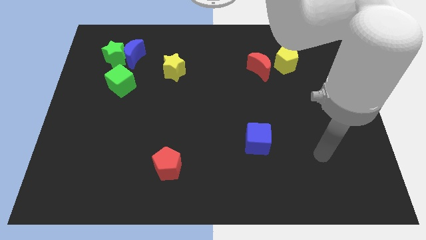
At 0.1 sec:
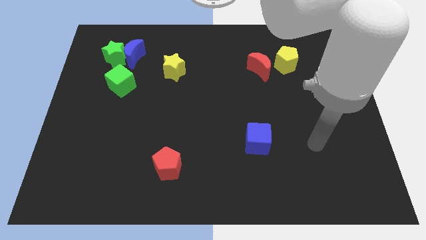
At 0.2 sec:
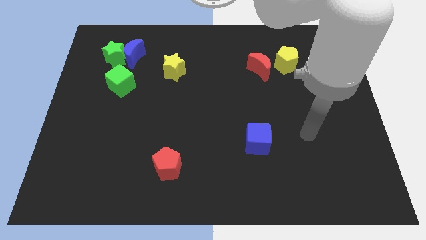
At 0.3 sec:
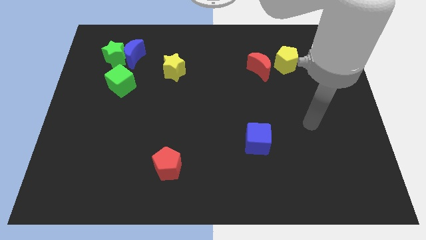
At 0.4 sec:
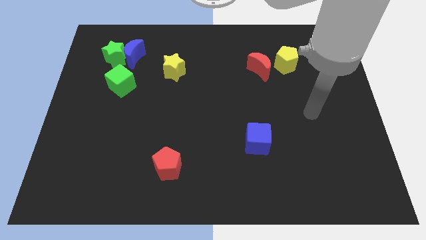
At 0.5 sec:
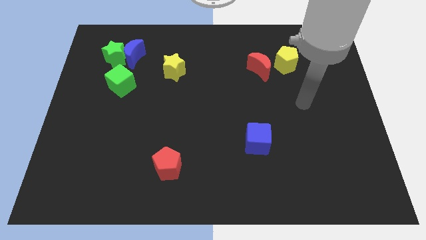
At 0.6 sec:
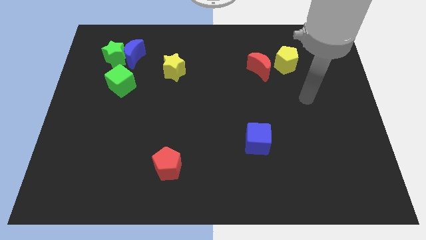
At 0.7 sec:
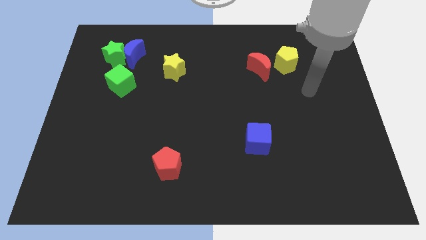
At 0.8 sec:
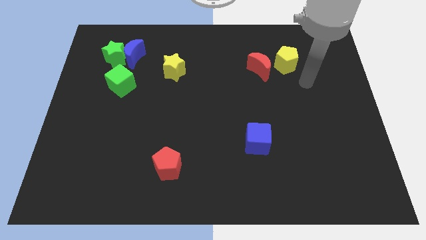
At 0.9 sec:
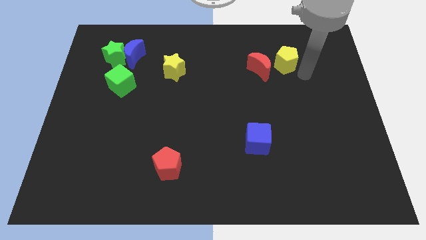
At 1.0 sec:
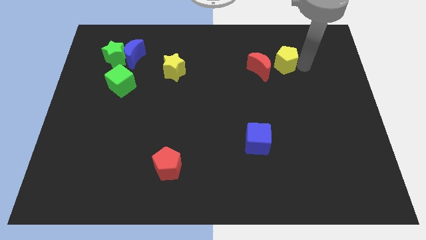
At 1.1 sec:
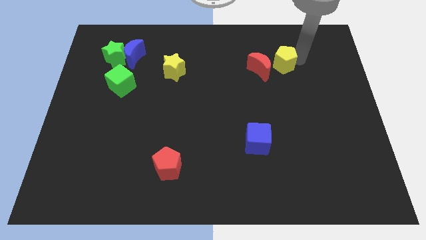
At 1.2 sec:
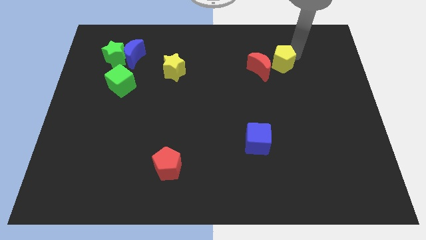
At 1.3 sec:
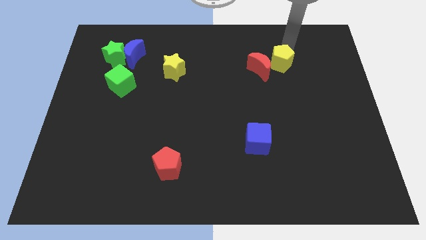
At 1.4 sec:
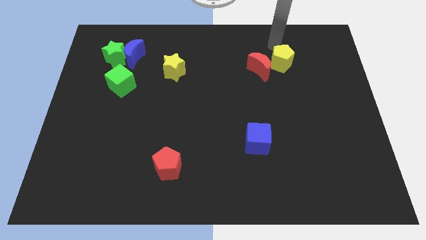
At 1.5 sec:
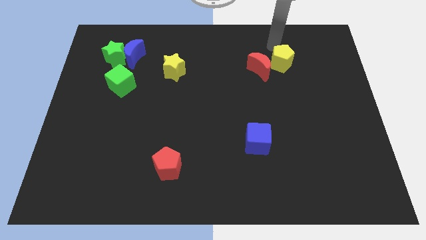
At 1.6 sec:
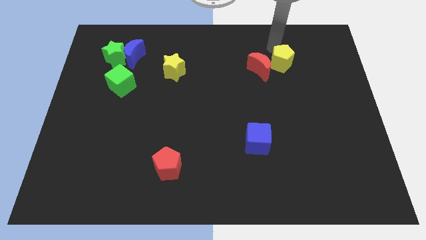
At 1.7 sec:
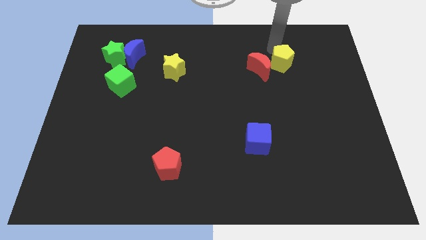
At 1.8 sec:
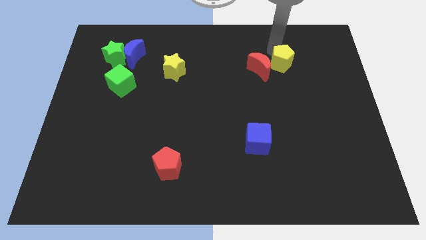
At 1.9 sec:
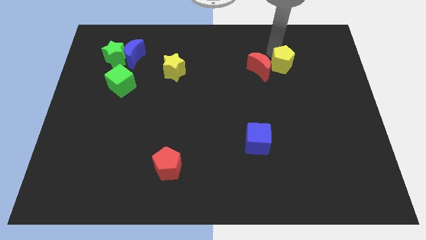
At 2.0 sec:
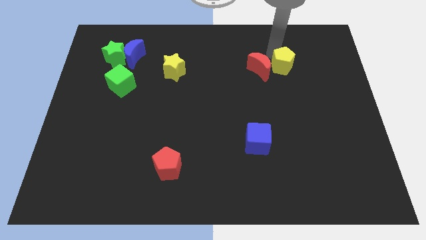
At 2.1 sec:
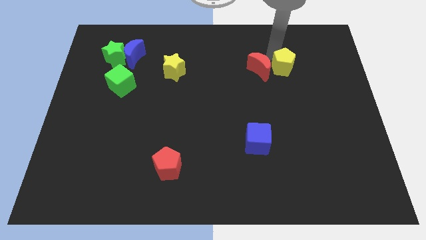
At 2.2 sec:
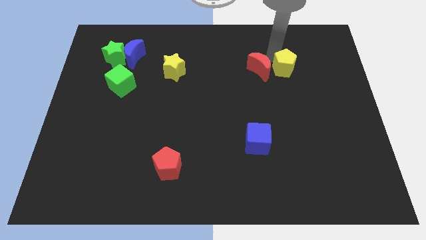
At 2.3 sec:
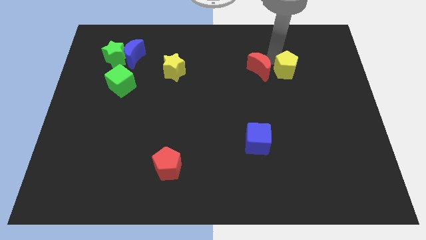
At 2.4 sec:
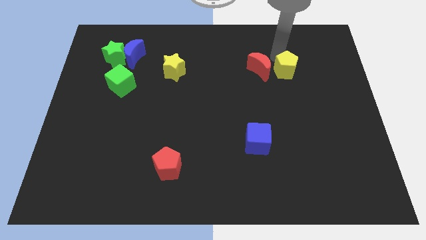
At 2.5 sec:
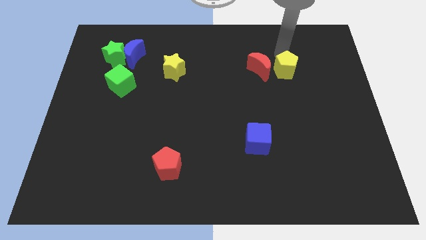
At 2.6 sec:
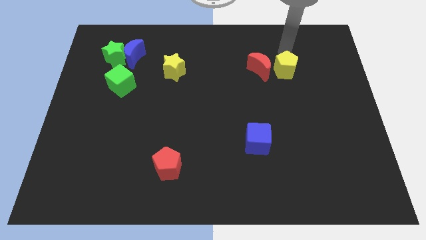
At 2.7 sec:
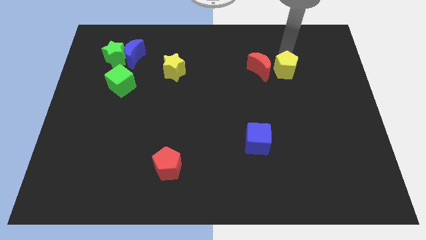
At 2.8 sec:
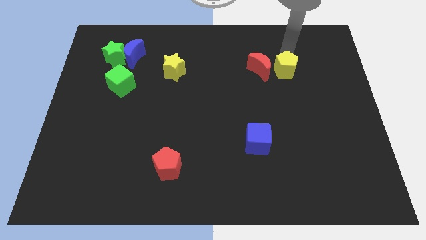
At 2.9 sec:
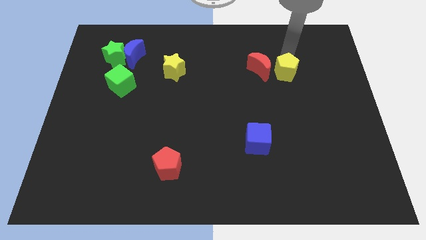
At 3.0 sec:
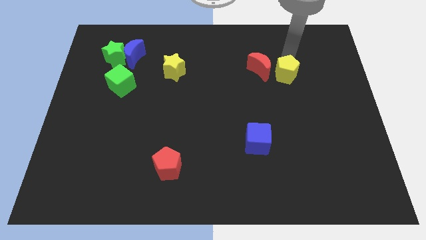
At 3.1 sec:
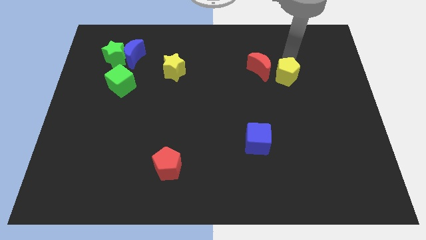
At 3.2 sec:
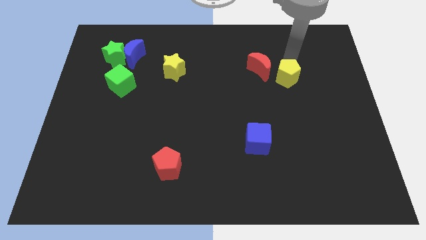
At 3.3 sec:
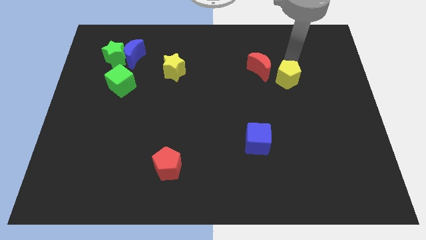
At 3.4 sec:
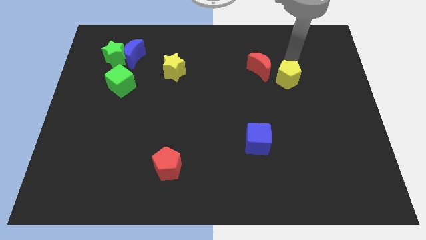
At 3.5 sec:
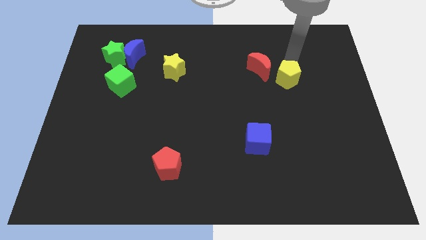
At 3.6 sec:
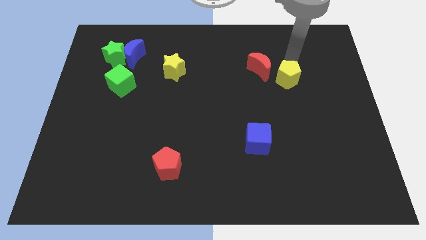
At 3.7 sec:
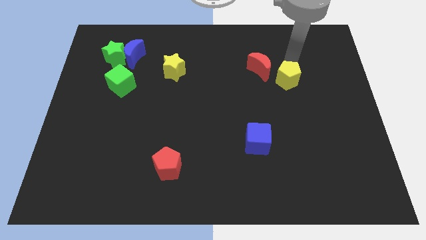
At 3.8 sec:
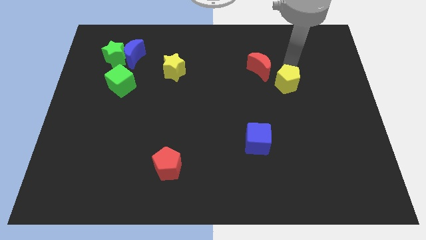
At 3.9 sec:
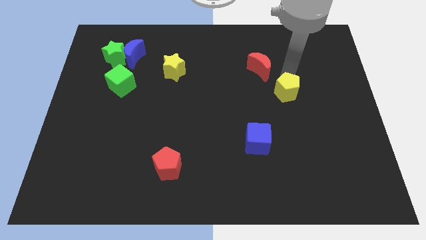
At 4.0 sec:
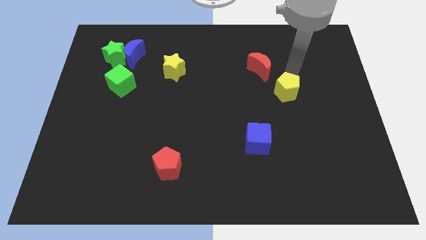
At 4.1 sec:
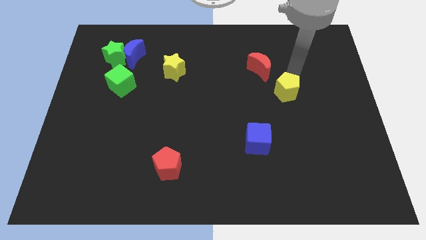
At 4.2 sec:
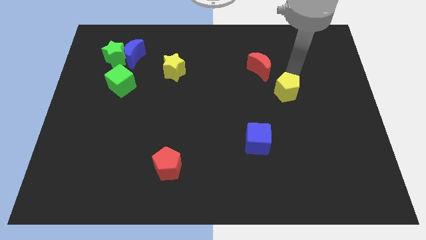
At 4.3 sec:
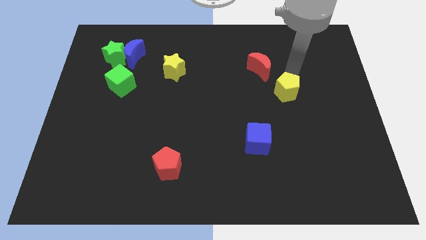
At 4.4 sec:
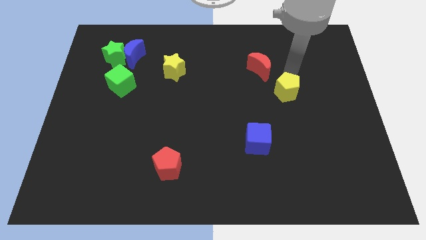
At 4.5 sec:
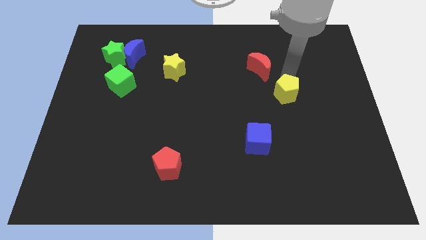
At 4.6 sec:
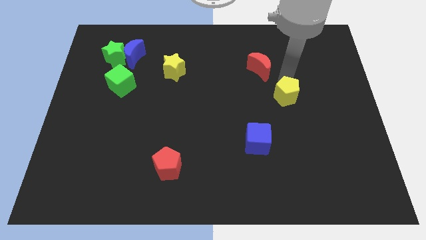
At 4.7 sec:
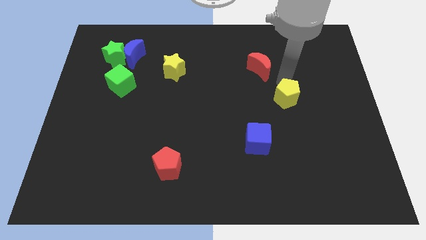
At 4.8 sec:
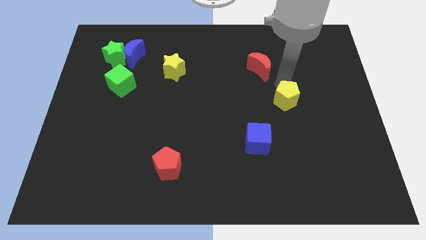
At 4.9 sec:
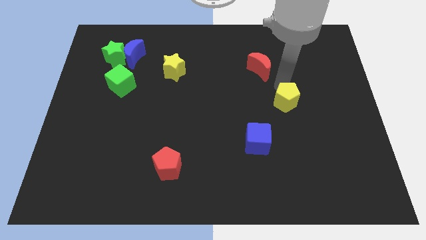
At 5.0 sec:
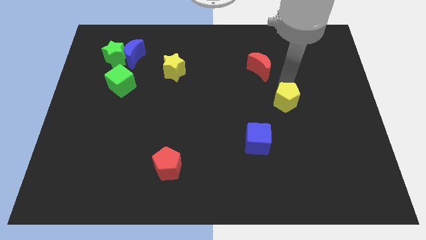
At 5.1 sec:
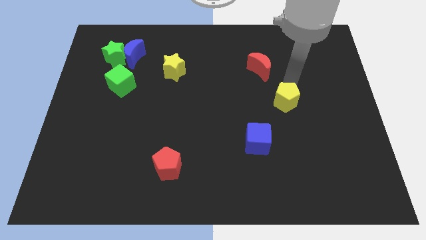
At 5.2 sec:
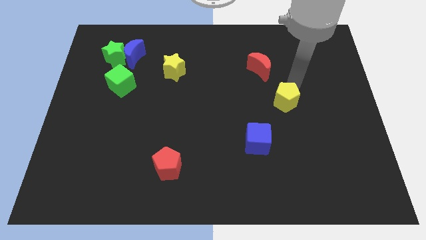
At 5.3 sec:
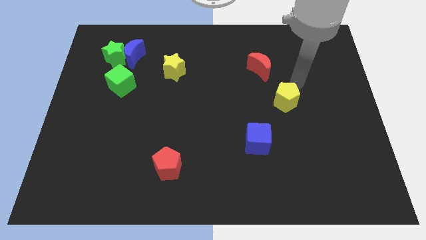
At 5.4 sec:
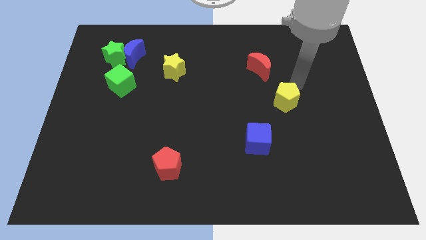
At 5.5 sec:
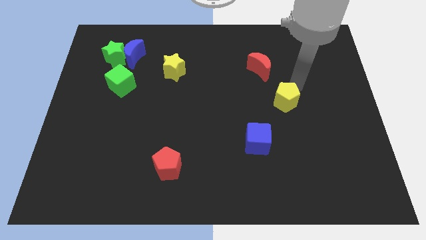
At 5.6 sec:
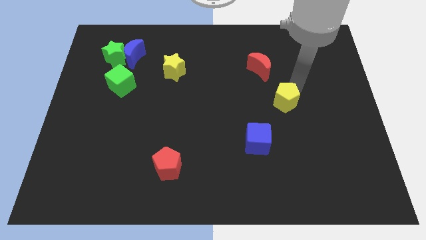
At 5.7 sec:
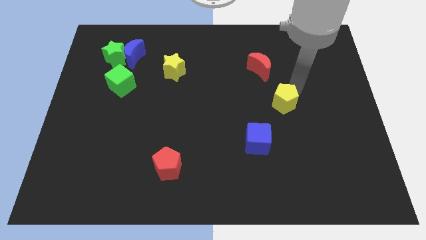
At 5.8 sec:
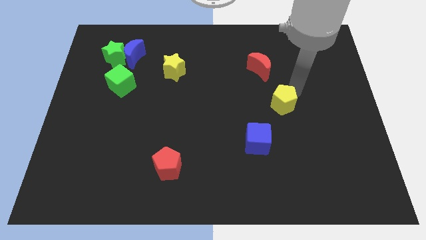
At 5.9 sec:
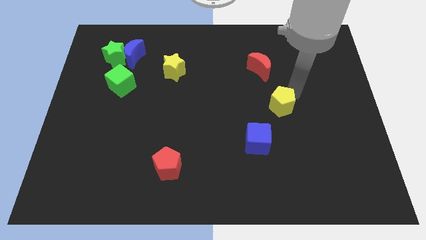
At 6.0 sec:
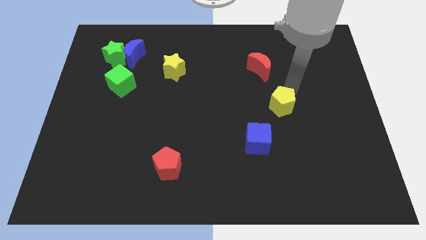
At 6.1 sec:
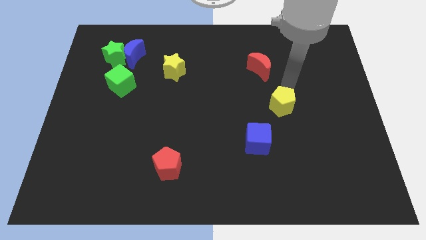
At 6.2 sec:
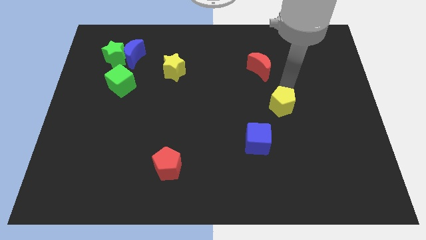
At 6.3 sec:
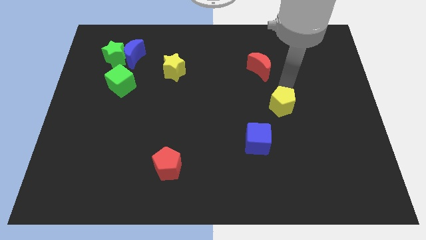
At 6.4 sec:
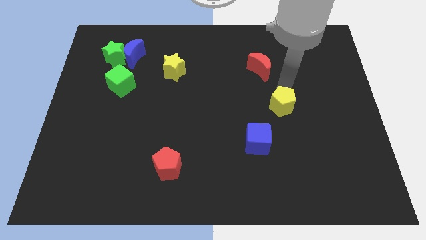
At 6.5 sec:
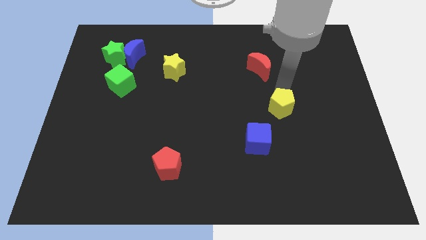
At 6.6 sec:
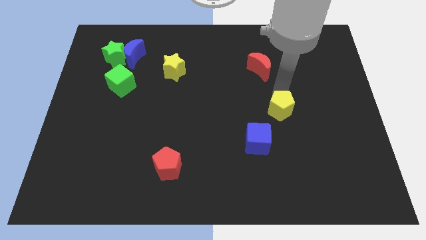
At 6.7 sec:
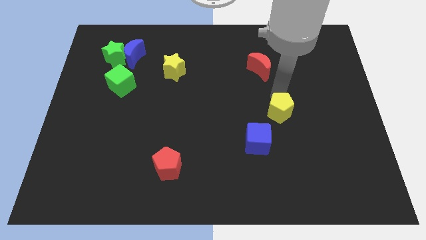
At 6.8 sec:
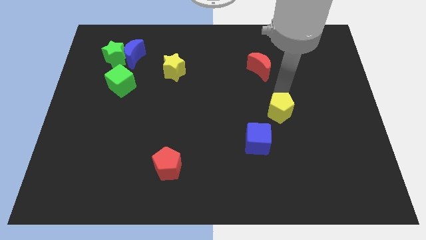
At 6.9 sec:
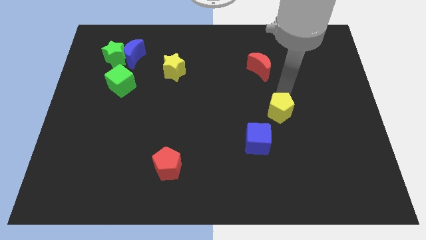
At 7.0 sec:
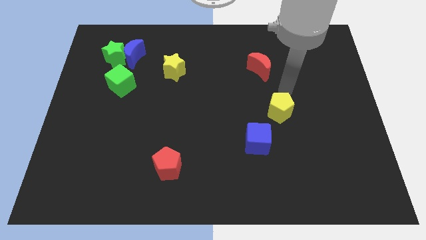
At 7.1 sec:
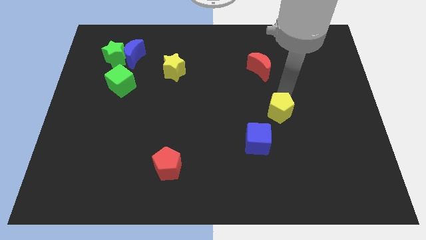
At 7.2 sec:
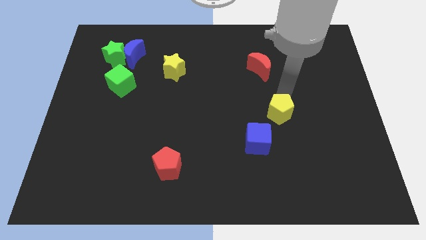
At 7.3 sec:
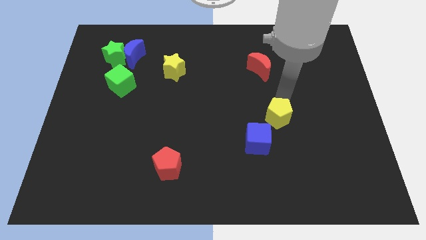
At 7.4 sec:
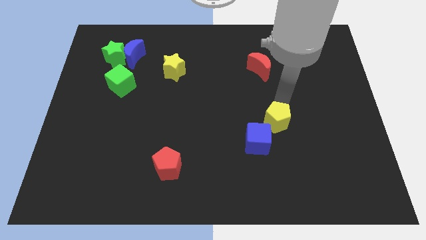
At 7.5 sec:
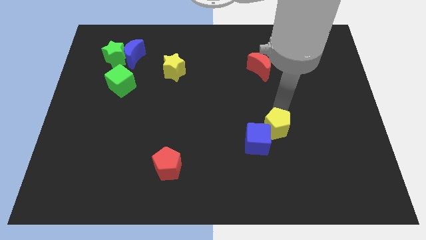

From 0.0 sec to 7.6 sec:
move the yellow pentagon towards the blue cube

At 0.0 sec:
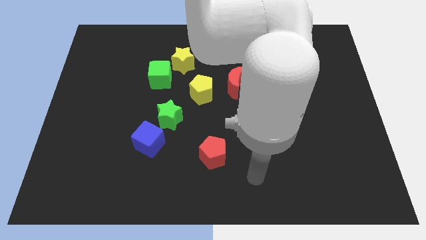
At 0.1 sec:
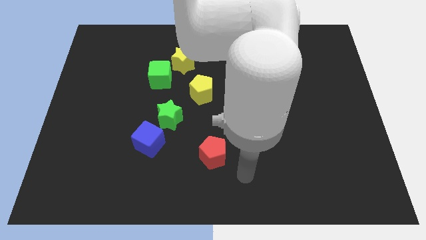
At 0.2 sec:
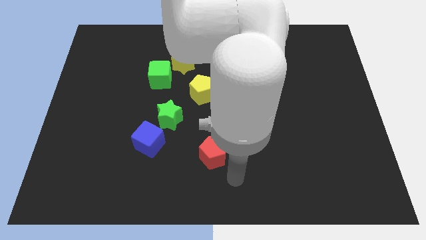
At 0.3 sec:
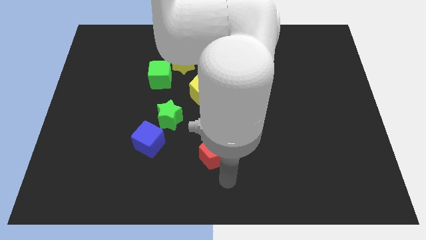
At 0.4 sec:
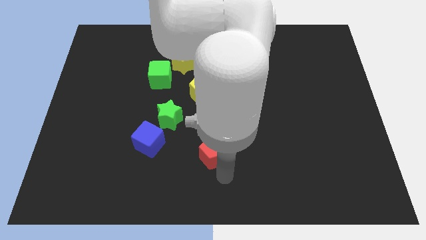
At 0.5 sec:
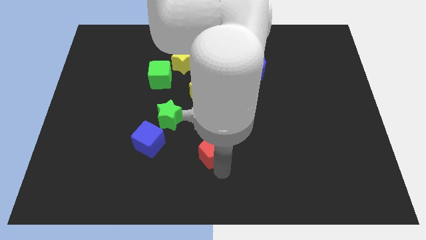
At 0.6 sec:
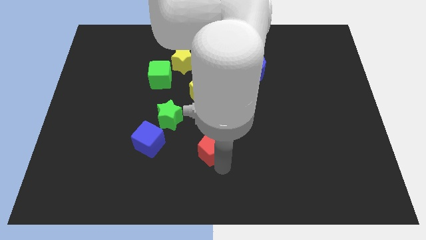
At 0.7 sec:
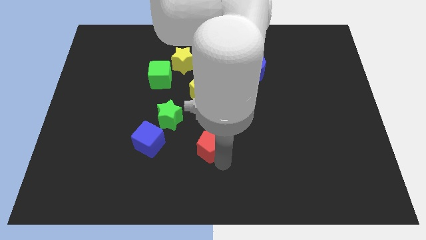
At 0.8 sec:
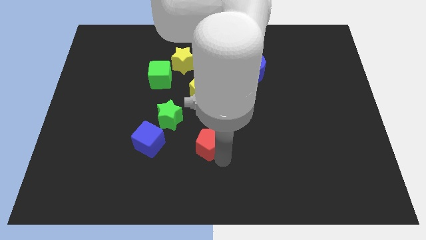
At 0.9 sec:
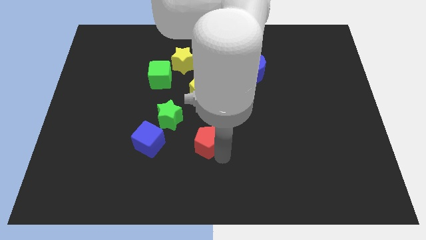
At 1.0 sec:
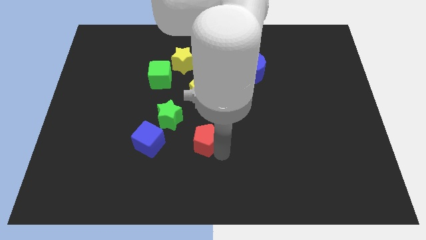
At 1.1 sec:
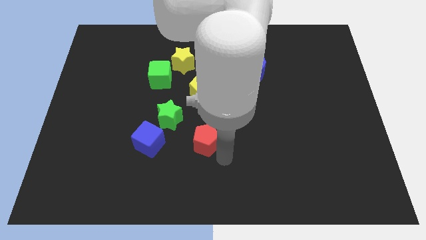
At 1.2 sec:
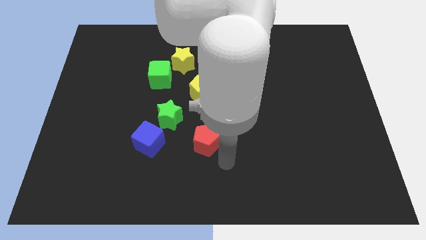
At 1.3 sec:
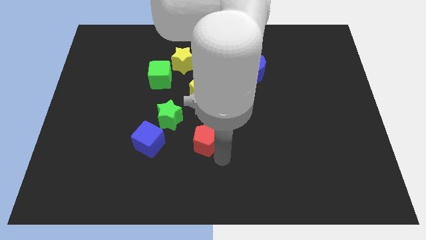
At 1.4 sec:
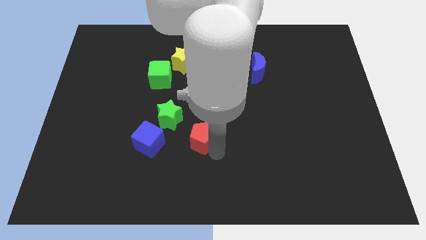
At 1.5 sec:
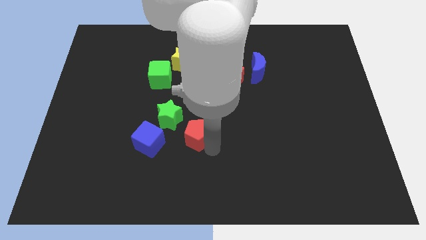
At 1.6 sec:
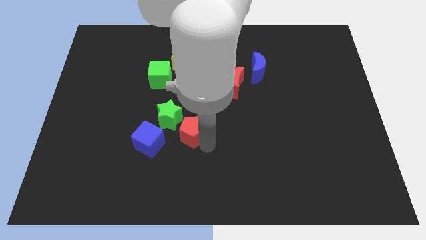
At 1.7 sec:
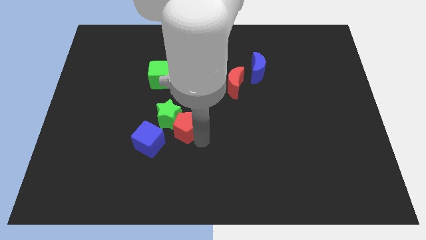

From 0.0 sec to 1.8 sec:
slide the red pentagon to the green star
